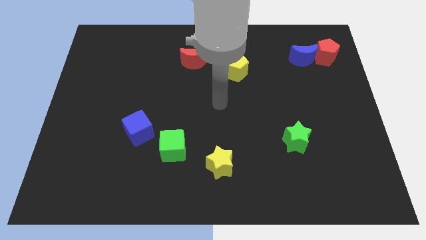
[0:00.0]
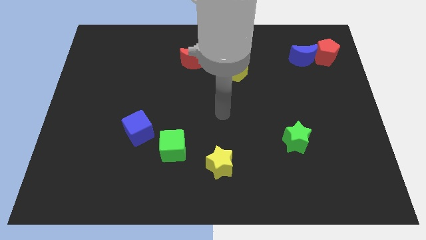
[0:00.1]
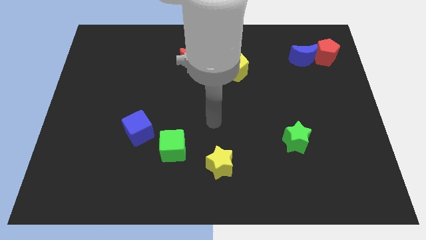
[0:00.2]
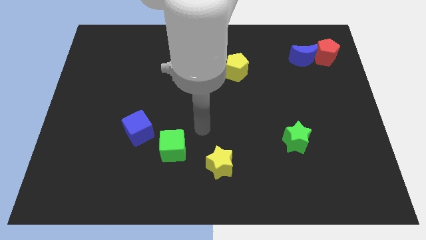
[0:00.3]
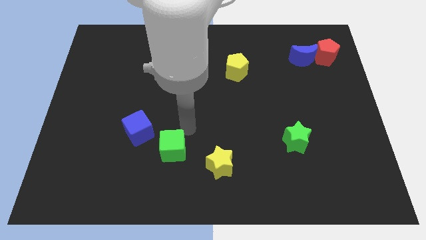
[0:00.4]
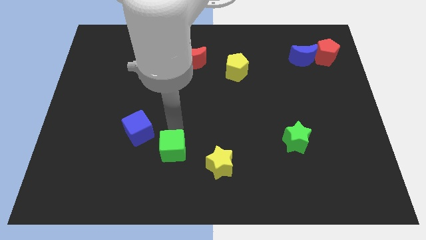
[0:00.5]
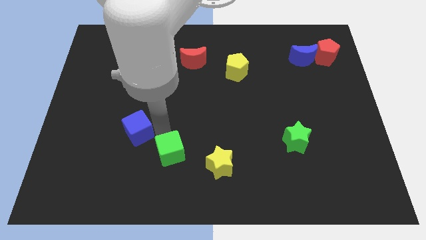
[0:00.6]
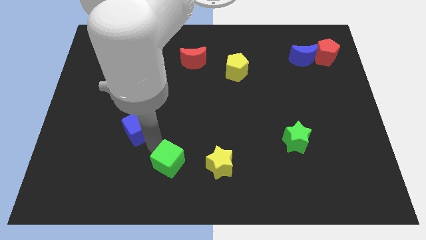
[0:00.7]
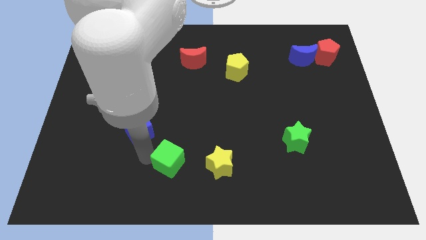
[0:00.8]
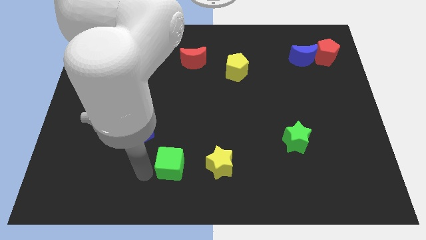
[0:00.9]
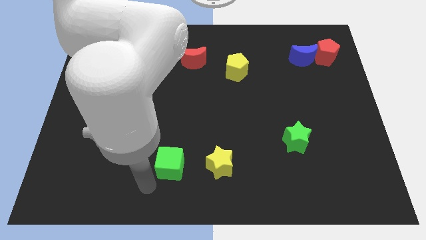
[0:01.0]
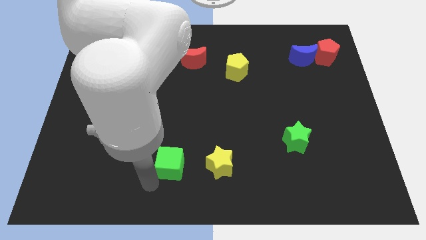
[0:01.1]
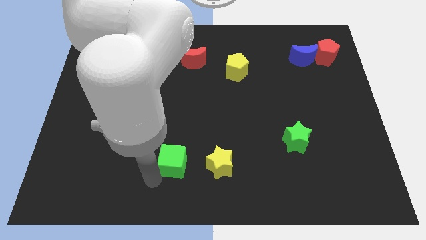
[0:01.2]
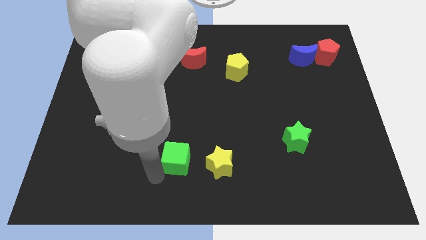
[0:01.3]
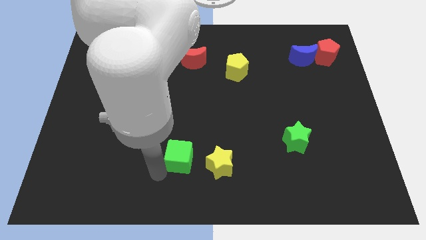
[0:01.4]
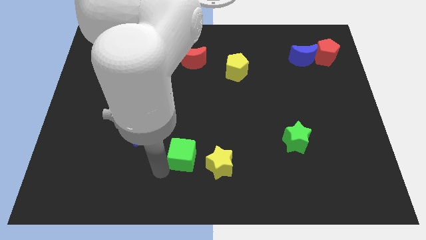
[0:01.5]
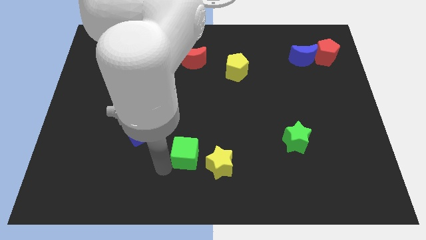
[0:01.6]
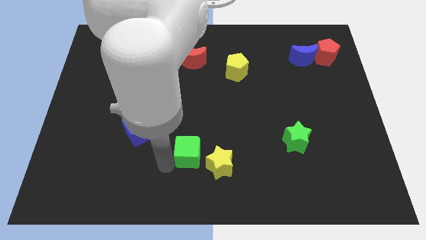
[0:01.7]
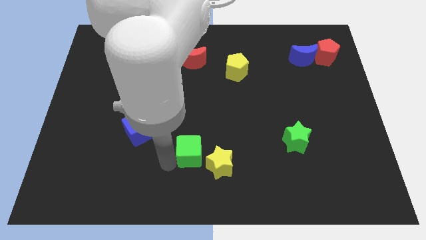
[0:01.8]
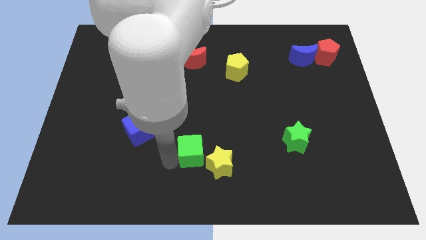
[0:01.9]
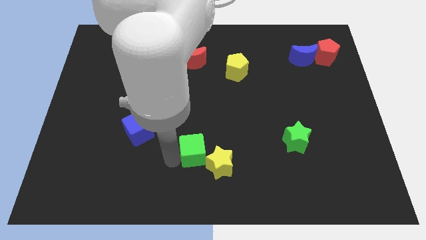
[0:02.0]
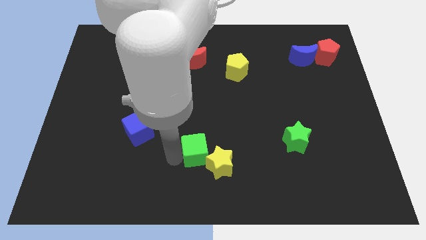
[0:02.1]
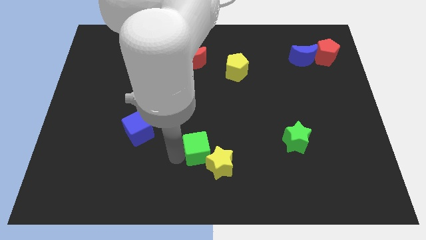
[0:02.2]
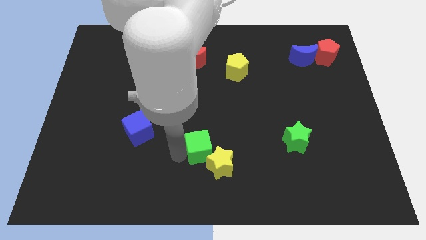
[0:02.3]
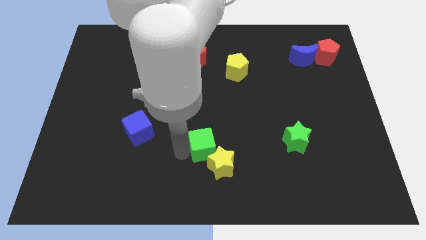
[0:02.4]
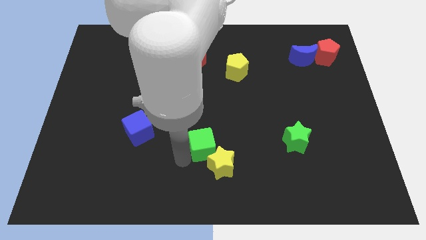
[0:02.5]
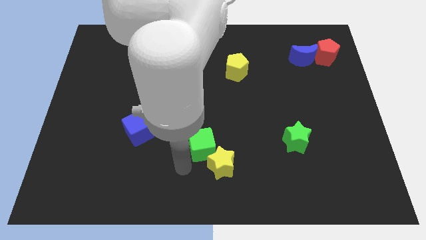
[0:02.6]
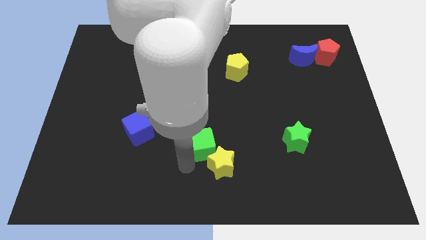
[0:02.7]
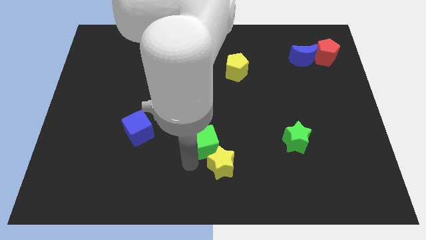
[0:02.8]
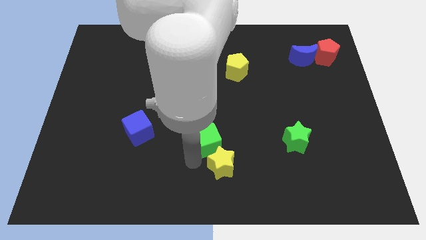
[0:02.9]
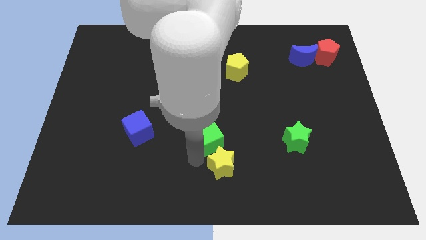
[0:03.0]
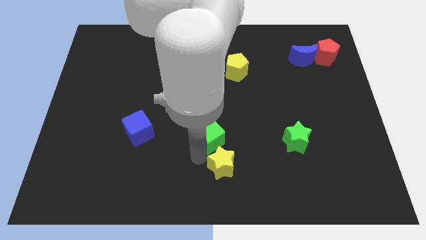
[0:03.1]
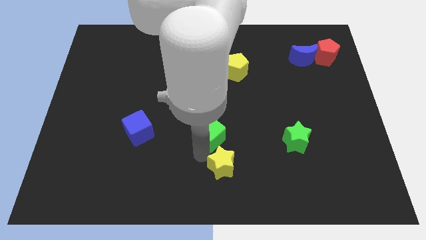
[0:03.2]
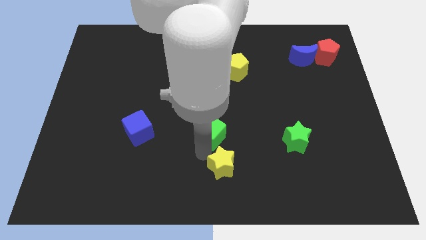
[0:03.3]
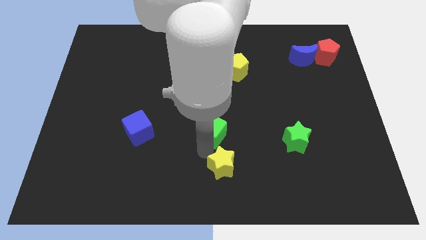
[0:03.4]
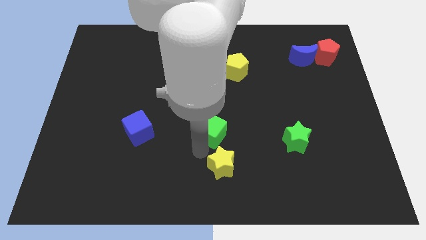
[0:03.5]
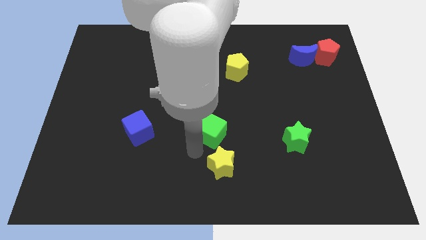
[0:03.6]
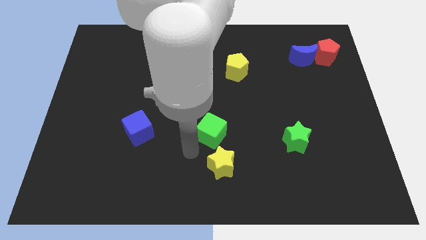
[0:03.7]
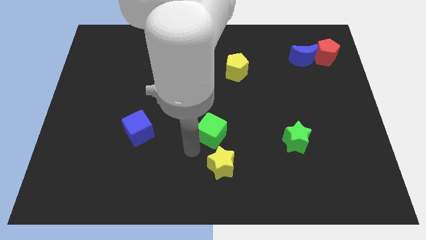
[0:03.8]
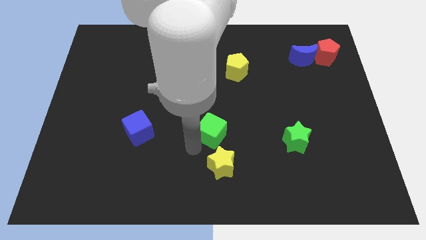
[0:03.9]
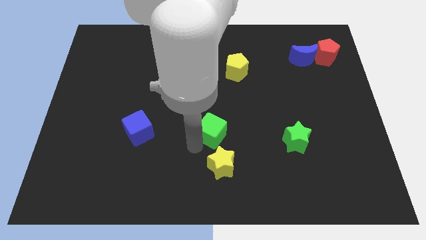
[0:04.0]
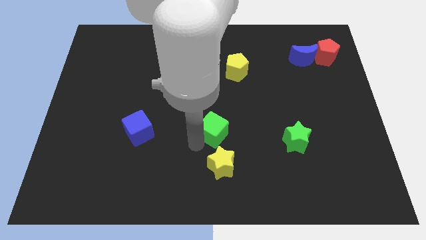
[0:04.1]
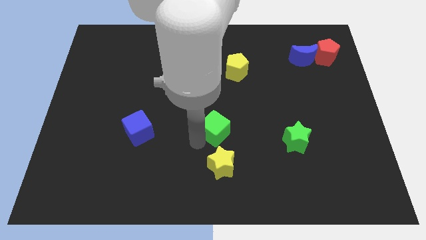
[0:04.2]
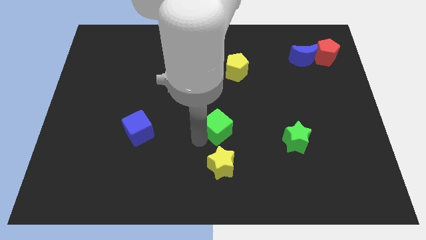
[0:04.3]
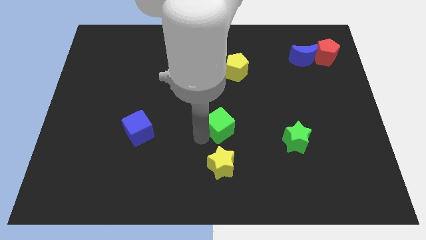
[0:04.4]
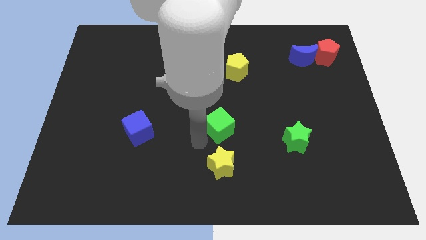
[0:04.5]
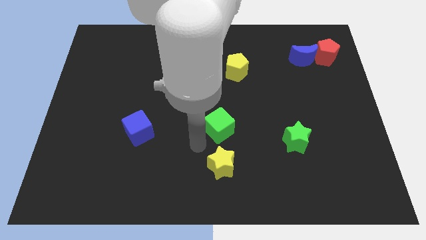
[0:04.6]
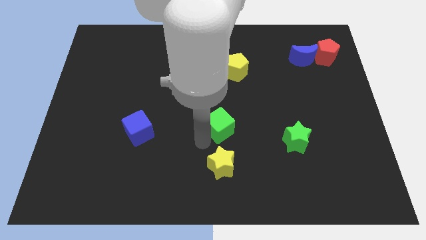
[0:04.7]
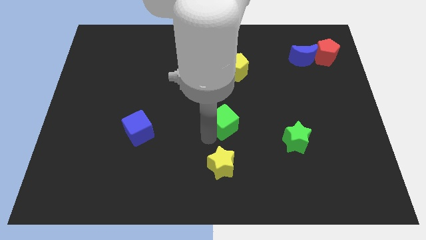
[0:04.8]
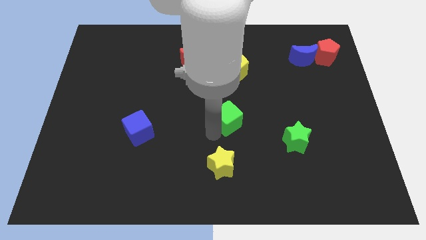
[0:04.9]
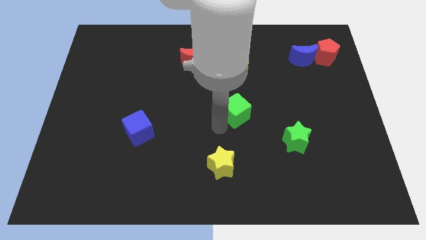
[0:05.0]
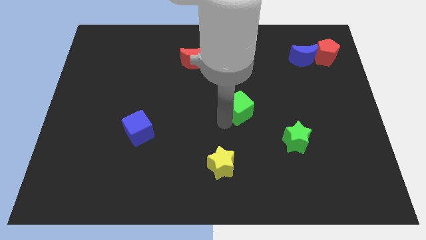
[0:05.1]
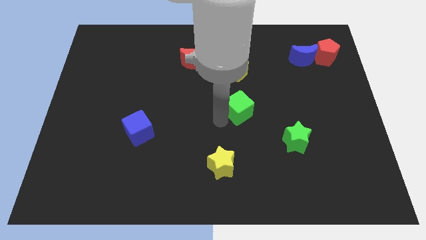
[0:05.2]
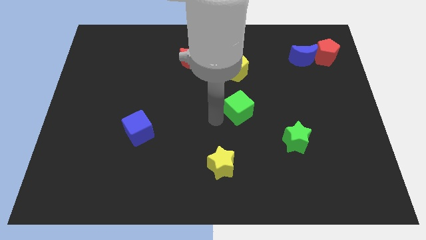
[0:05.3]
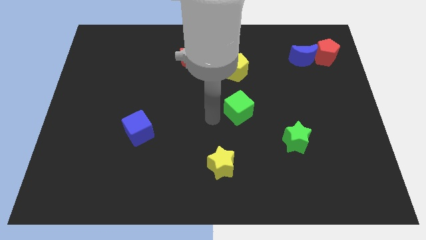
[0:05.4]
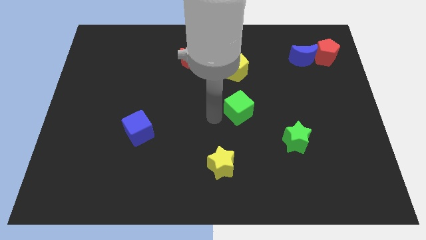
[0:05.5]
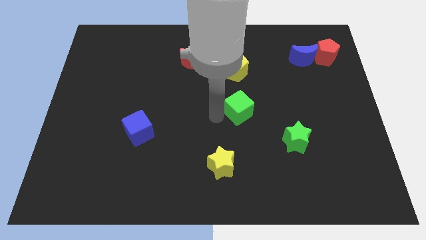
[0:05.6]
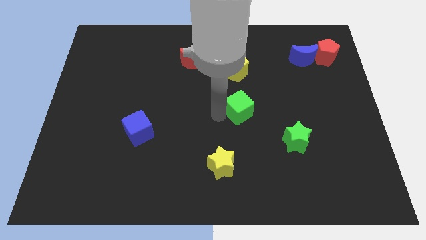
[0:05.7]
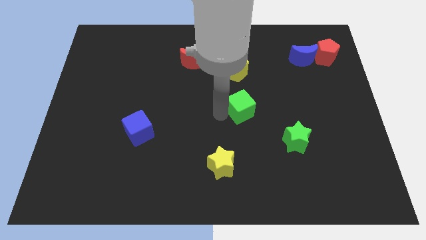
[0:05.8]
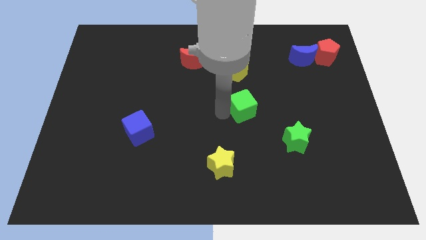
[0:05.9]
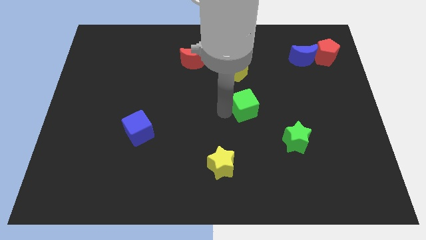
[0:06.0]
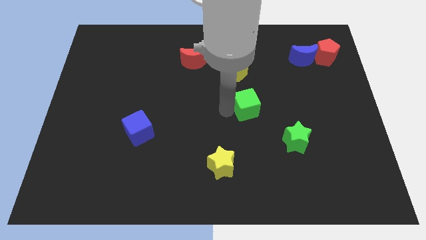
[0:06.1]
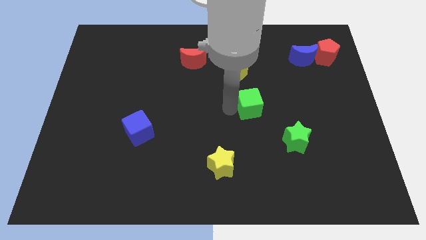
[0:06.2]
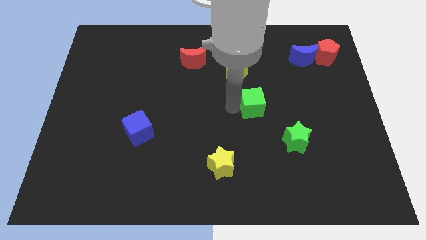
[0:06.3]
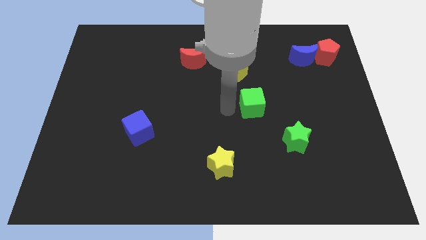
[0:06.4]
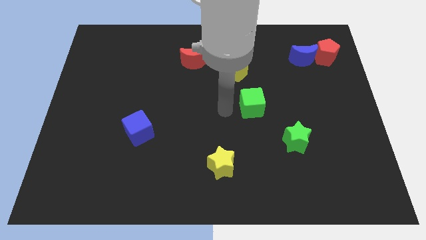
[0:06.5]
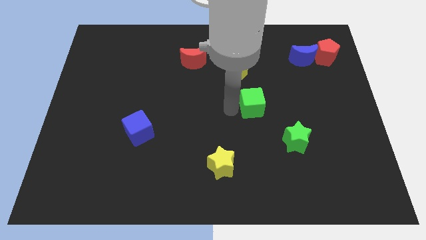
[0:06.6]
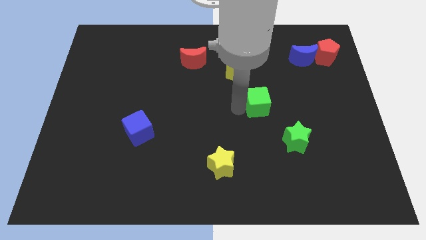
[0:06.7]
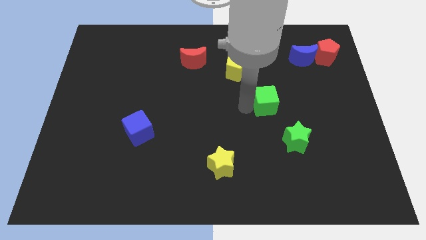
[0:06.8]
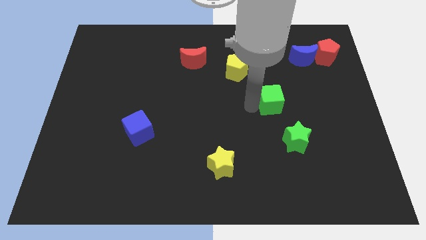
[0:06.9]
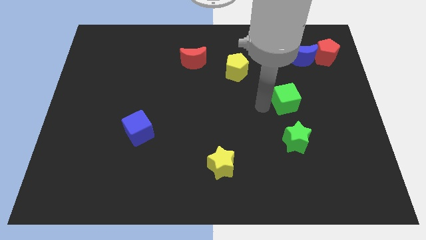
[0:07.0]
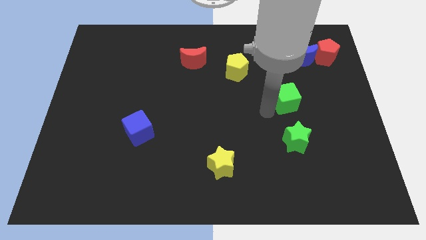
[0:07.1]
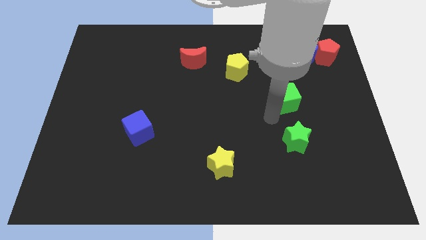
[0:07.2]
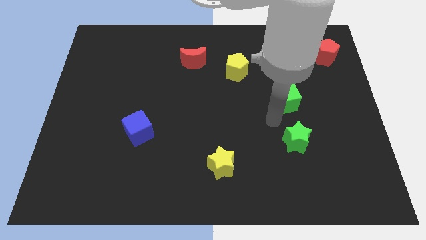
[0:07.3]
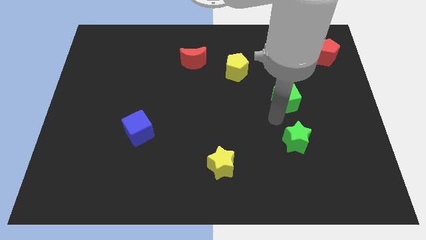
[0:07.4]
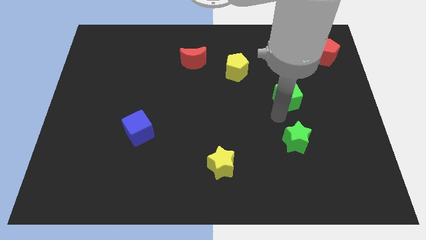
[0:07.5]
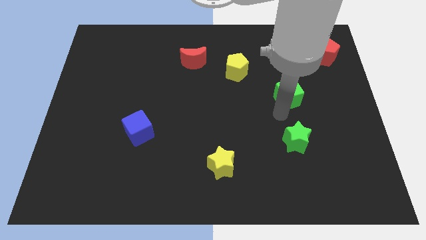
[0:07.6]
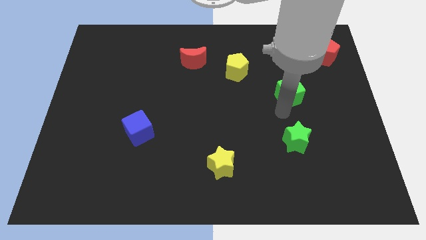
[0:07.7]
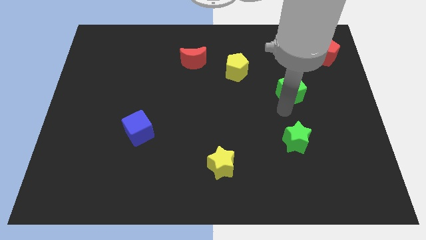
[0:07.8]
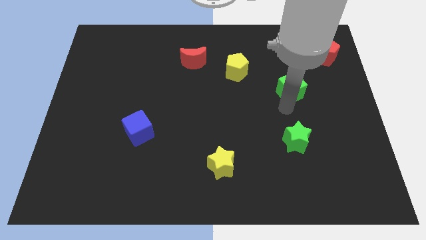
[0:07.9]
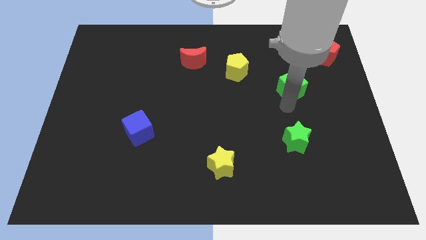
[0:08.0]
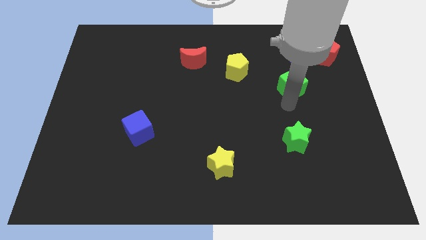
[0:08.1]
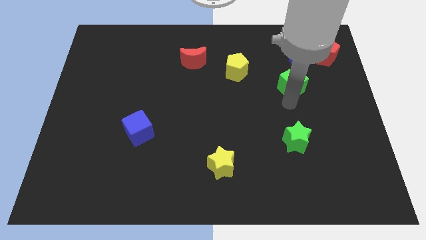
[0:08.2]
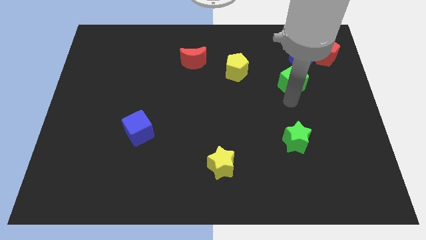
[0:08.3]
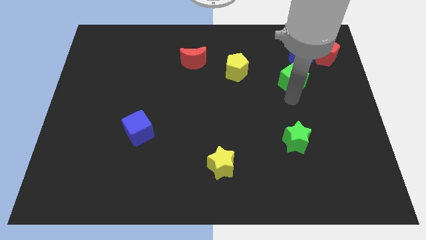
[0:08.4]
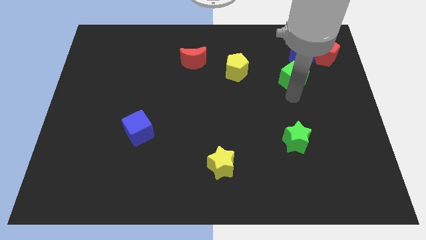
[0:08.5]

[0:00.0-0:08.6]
push the green cube to the bottom left side of the red pentagon
